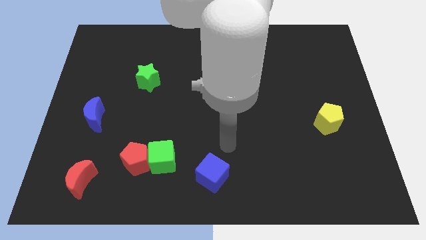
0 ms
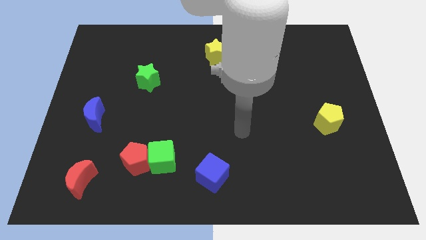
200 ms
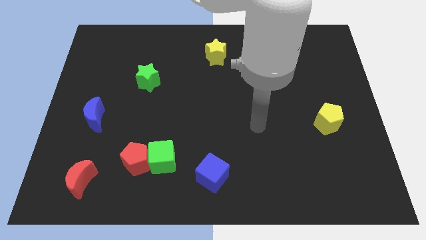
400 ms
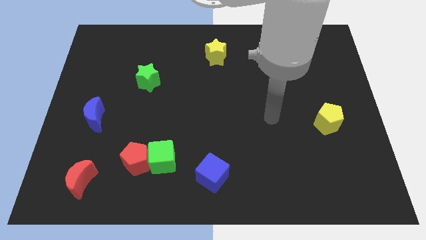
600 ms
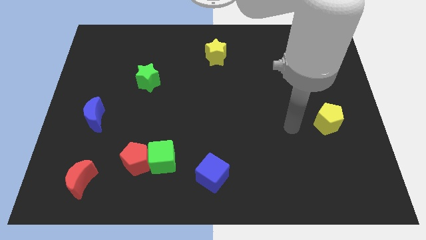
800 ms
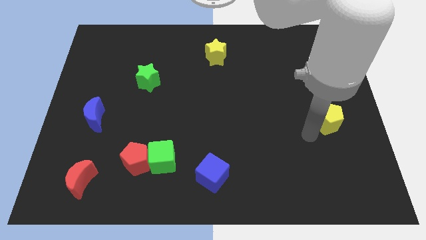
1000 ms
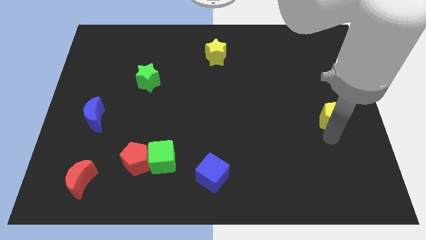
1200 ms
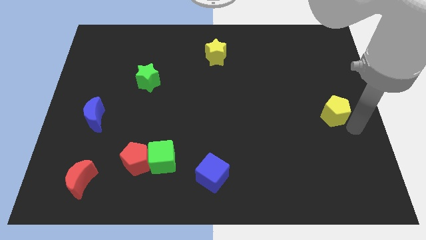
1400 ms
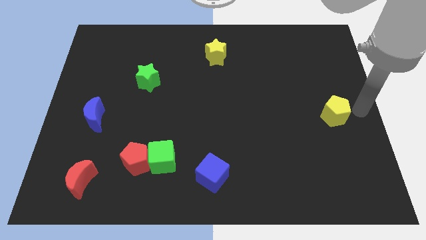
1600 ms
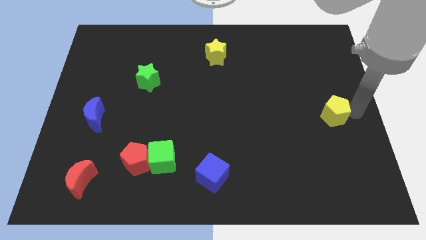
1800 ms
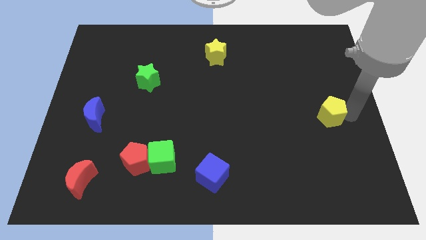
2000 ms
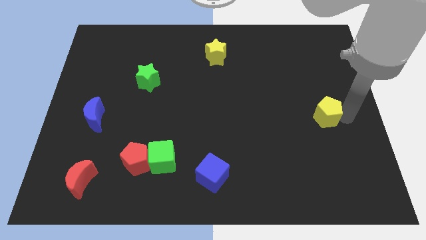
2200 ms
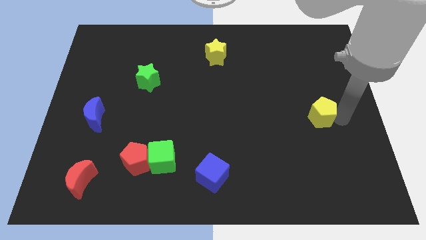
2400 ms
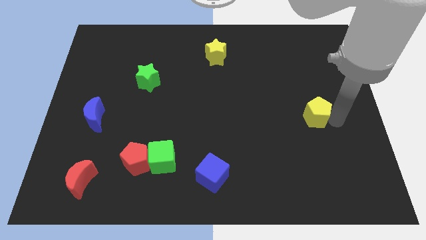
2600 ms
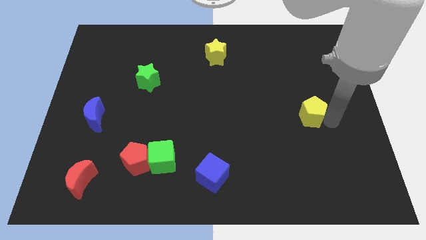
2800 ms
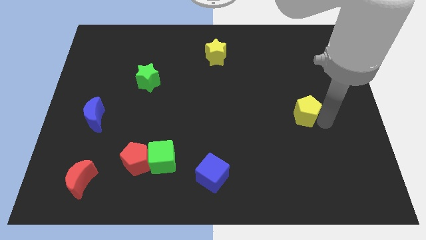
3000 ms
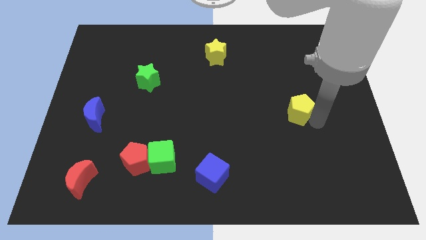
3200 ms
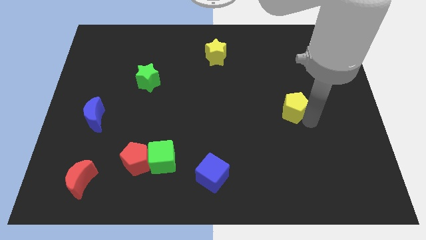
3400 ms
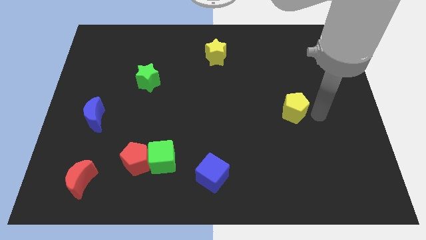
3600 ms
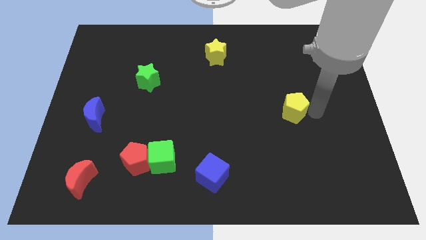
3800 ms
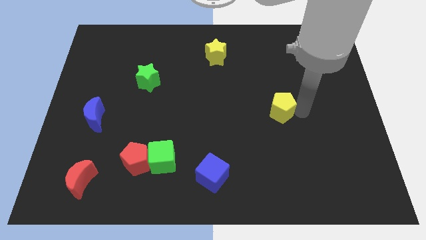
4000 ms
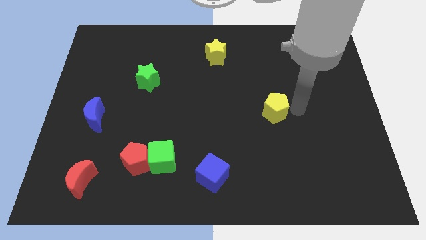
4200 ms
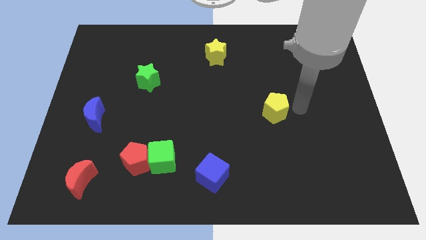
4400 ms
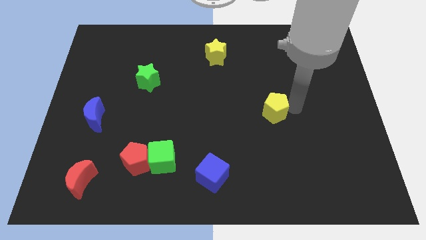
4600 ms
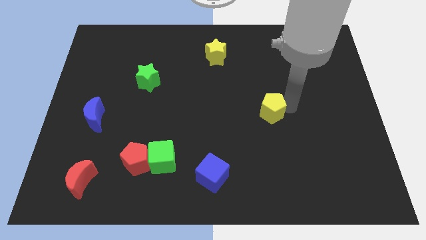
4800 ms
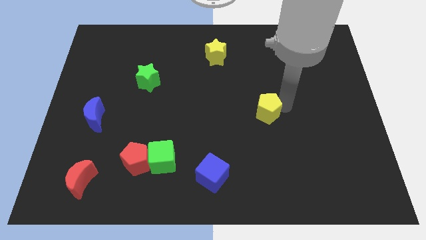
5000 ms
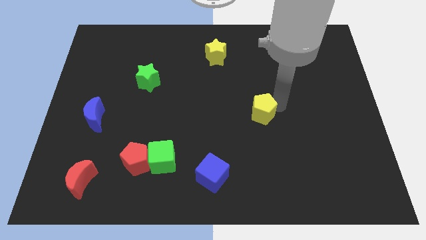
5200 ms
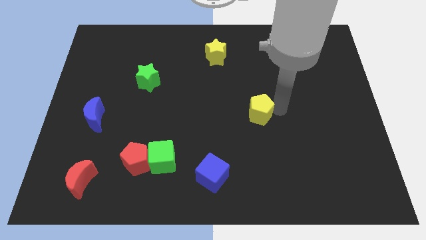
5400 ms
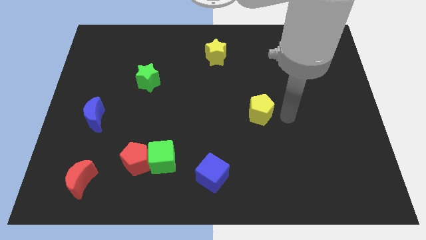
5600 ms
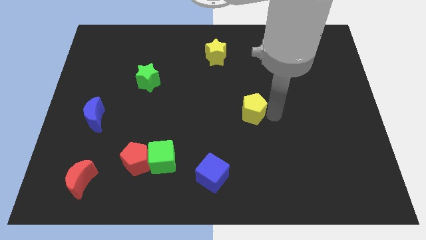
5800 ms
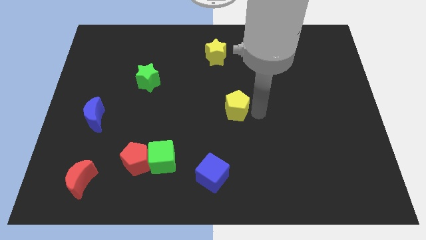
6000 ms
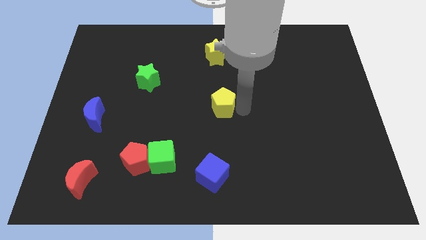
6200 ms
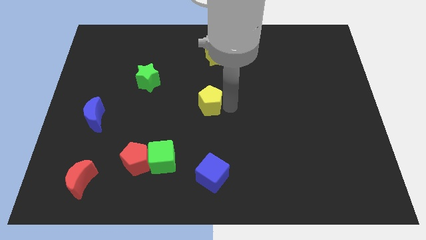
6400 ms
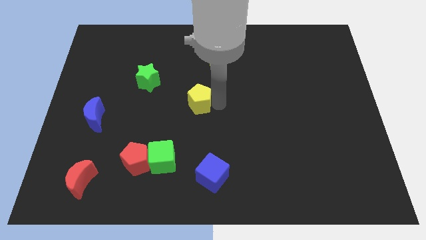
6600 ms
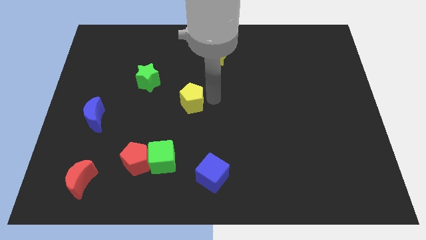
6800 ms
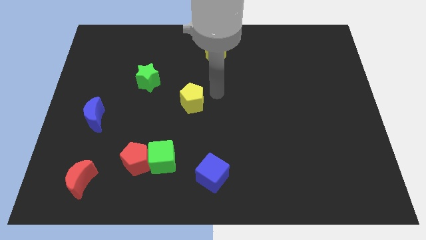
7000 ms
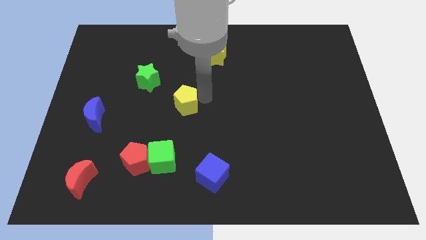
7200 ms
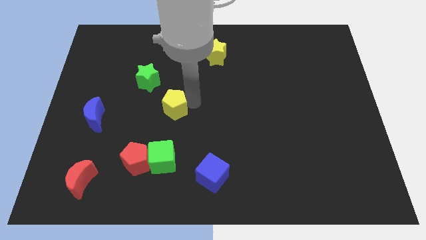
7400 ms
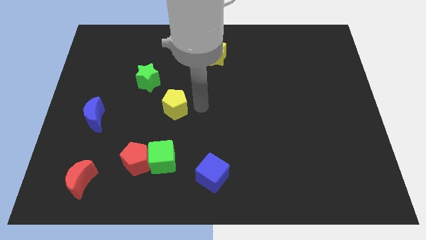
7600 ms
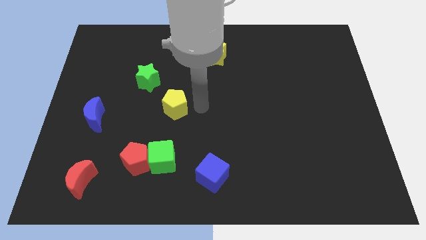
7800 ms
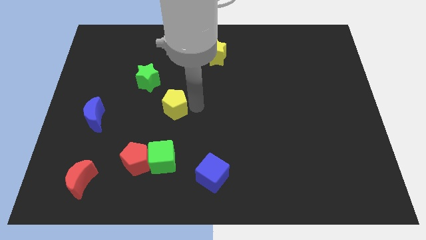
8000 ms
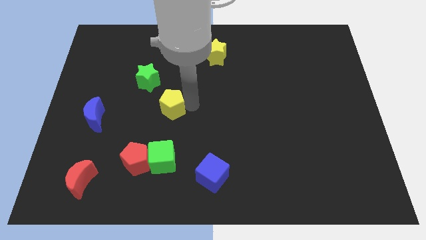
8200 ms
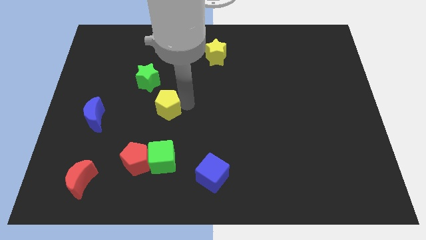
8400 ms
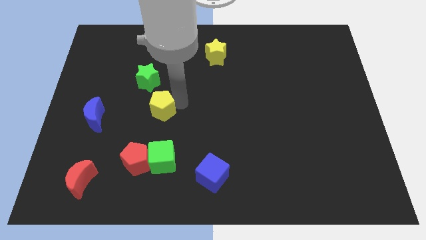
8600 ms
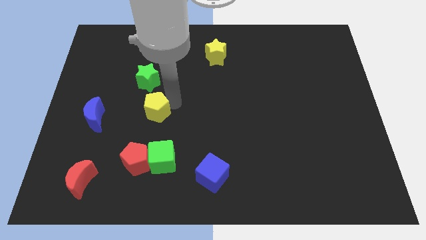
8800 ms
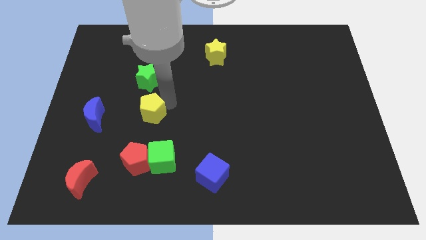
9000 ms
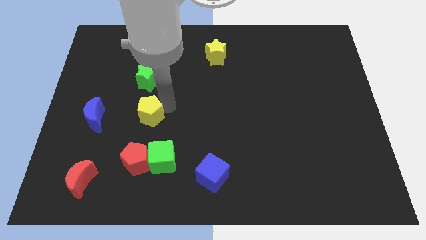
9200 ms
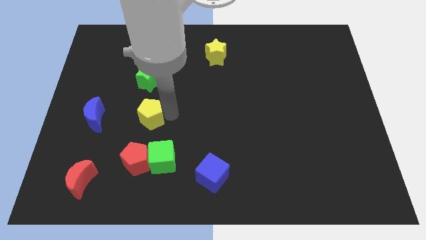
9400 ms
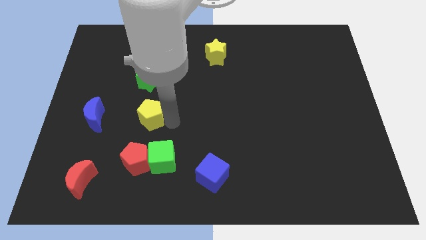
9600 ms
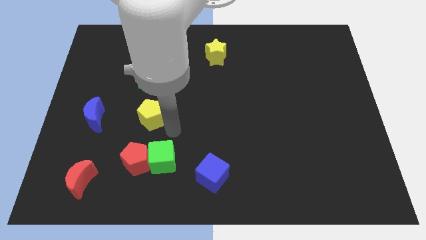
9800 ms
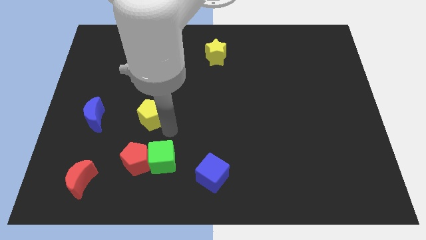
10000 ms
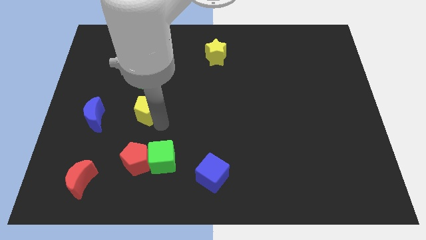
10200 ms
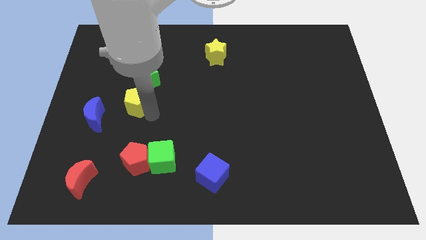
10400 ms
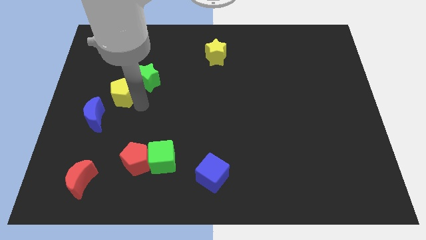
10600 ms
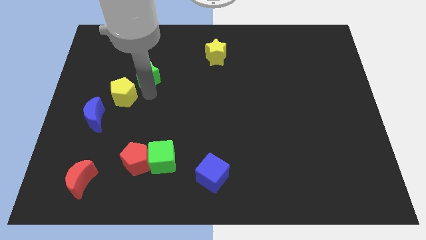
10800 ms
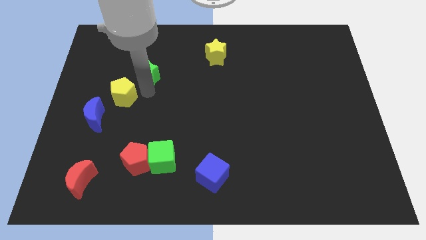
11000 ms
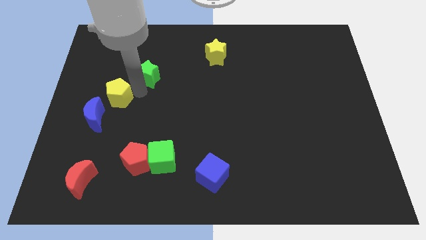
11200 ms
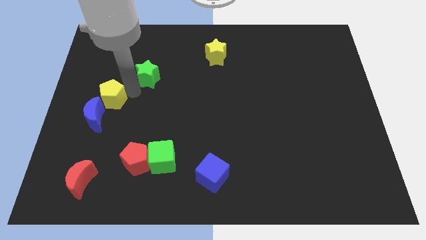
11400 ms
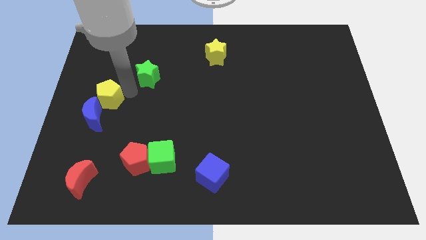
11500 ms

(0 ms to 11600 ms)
move the yellow pentagon to the center left
